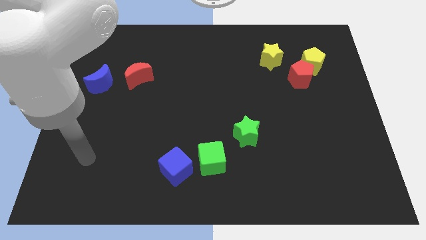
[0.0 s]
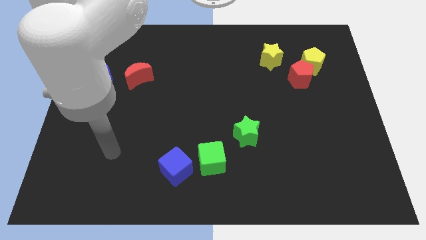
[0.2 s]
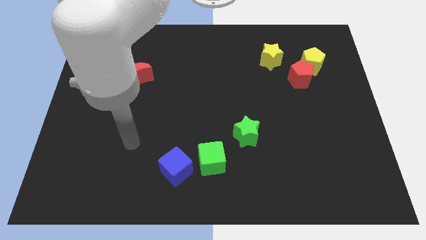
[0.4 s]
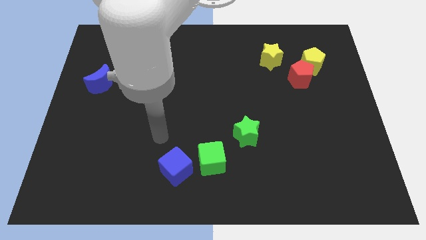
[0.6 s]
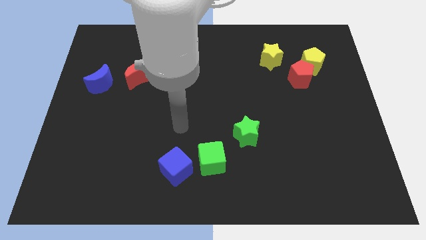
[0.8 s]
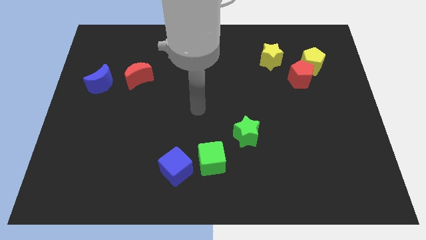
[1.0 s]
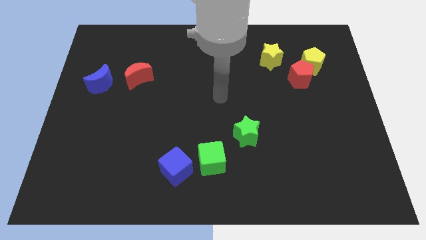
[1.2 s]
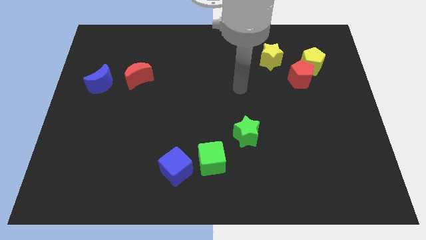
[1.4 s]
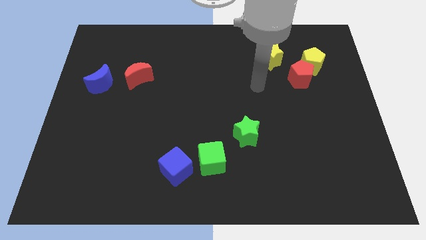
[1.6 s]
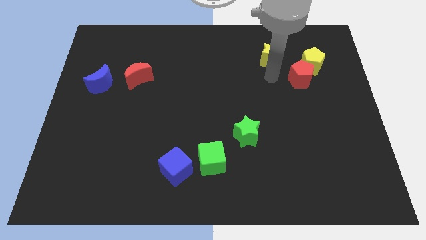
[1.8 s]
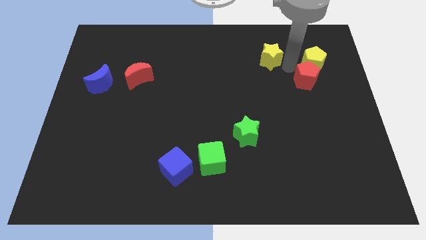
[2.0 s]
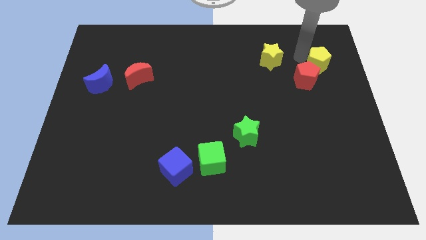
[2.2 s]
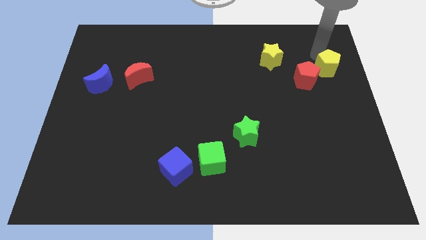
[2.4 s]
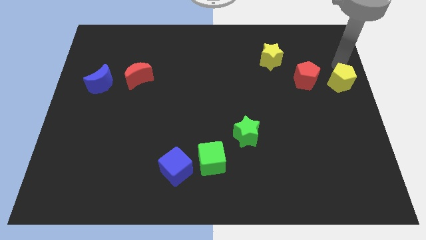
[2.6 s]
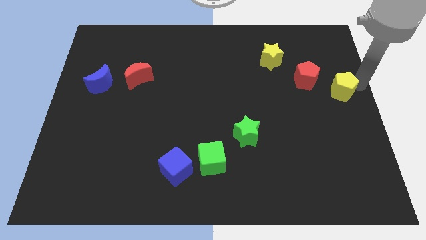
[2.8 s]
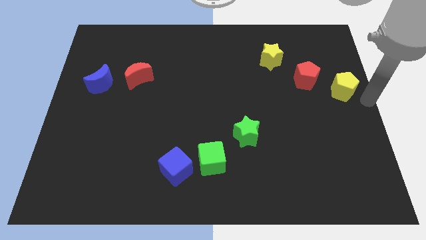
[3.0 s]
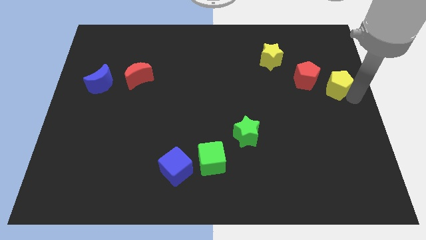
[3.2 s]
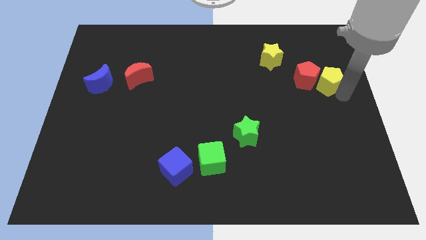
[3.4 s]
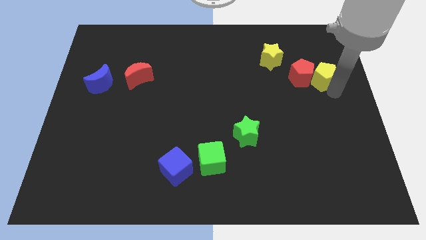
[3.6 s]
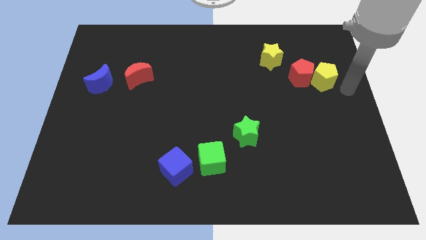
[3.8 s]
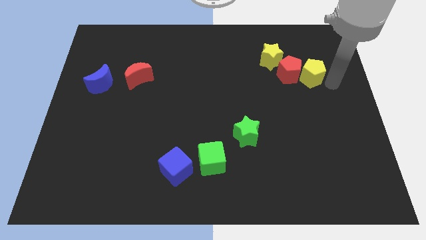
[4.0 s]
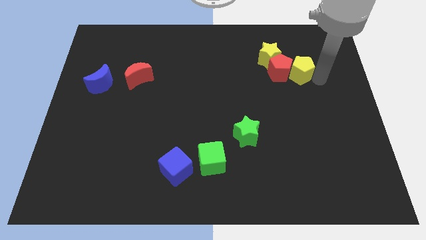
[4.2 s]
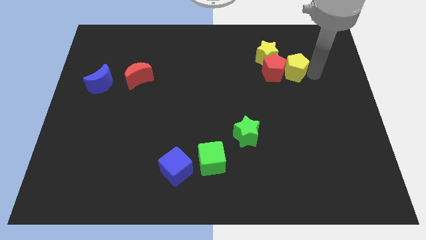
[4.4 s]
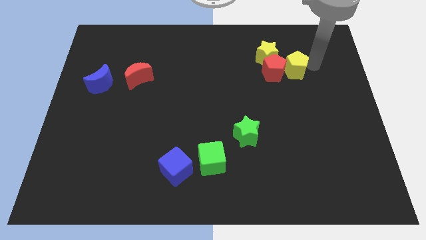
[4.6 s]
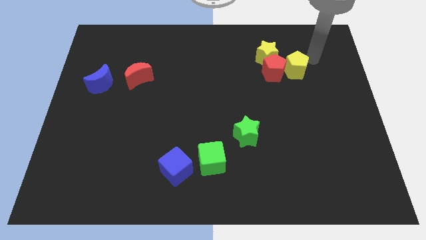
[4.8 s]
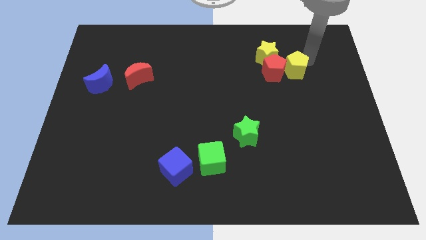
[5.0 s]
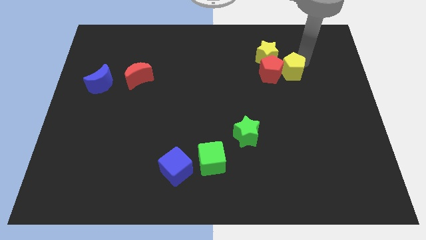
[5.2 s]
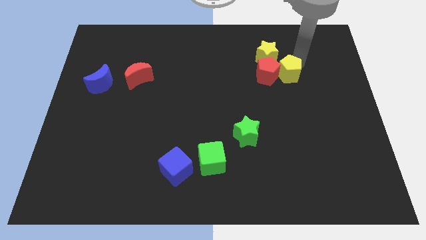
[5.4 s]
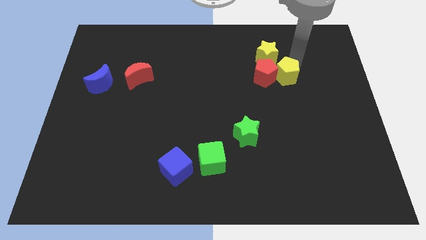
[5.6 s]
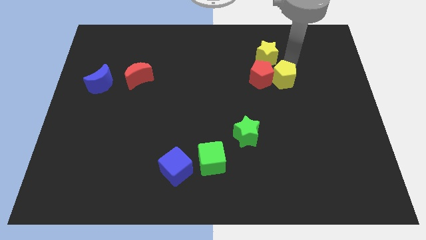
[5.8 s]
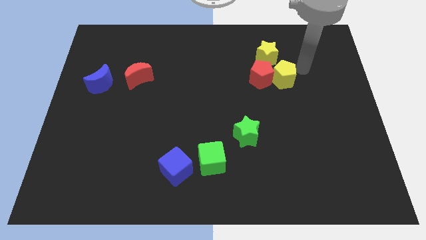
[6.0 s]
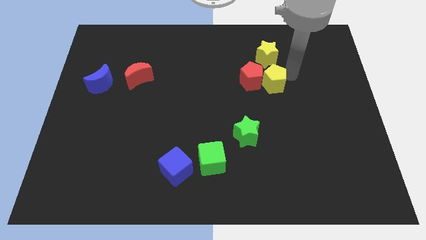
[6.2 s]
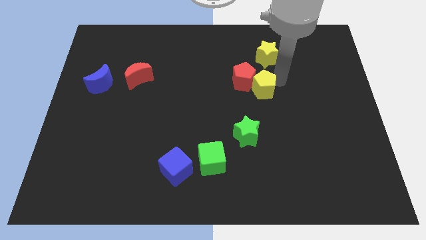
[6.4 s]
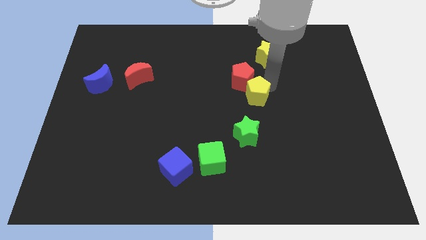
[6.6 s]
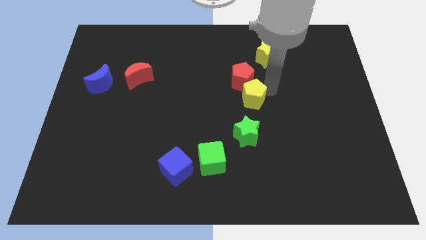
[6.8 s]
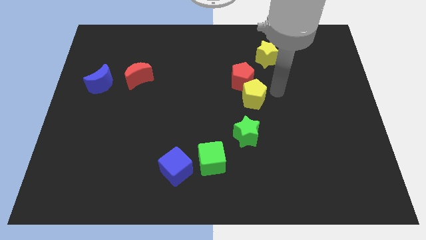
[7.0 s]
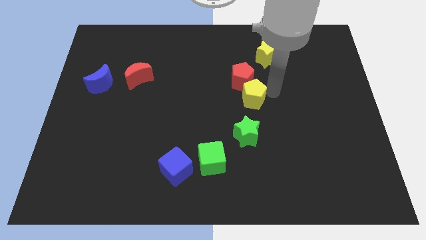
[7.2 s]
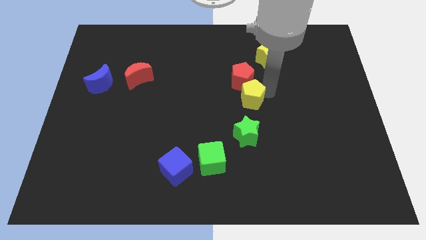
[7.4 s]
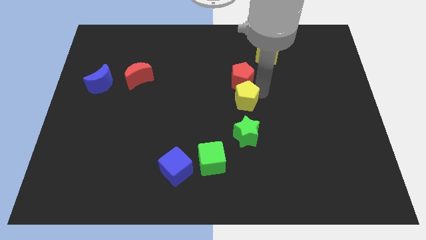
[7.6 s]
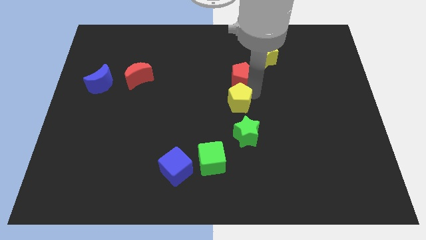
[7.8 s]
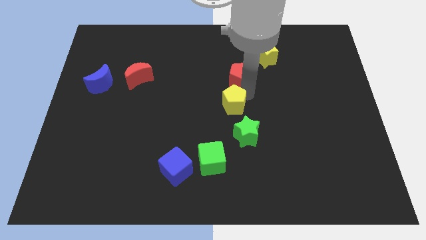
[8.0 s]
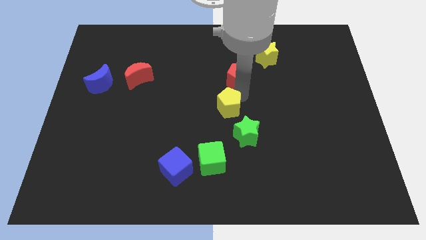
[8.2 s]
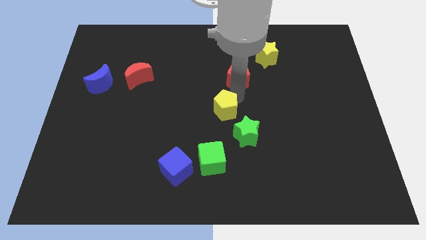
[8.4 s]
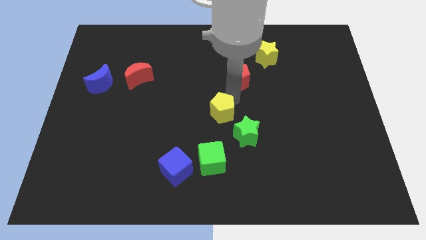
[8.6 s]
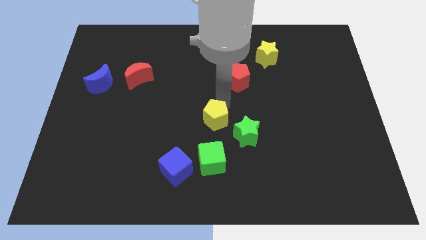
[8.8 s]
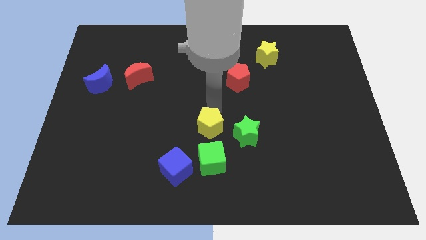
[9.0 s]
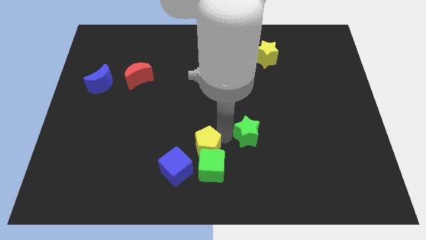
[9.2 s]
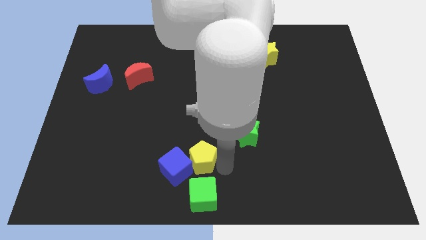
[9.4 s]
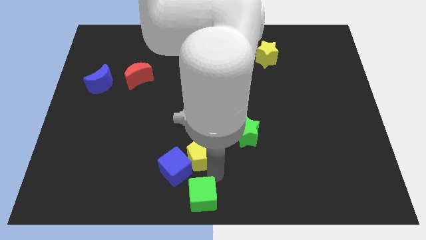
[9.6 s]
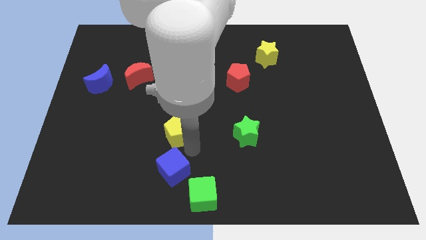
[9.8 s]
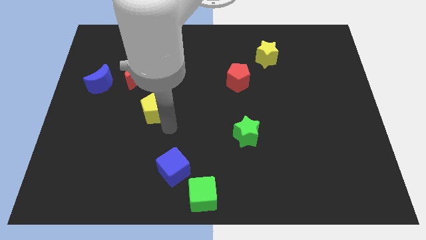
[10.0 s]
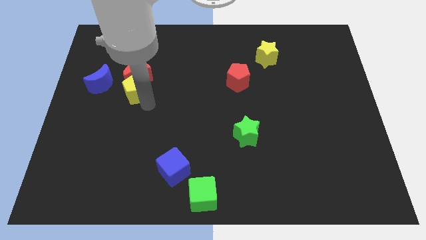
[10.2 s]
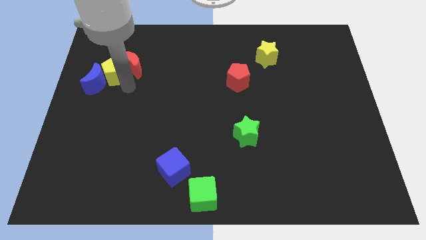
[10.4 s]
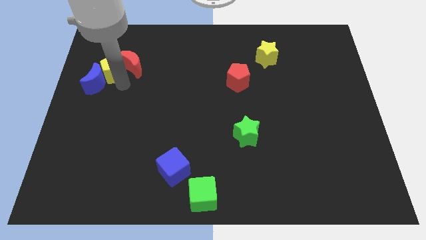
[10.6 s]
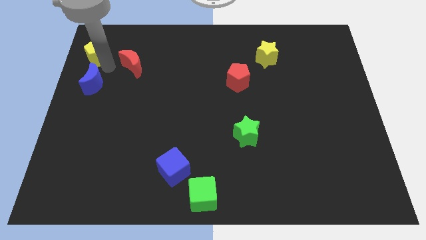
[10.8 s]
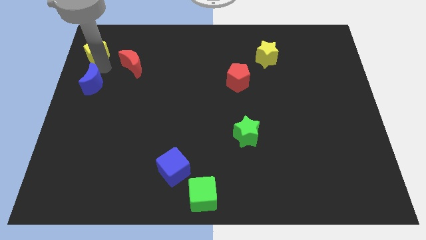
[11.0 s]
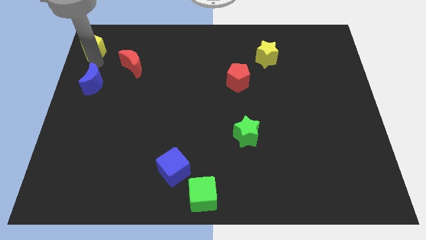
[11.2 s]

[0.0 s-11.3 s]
put the yellow pentagon to the top left of the board

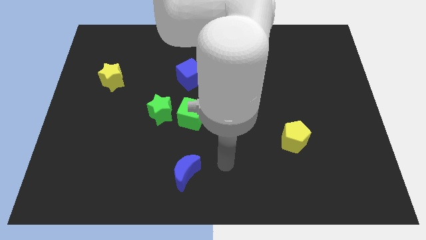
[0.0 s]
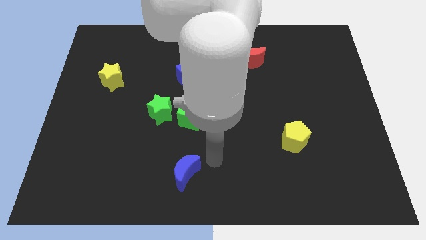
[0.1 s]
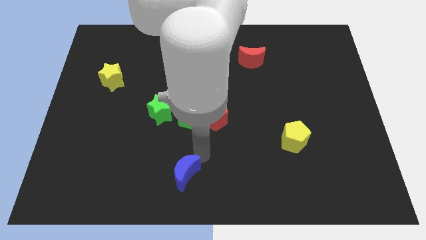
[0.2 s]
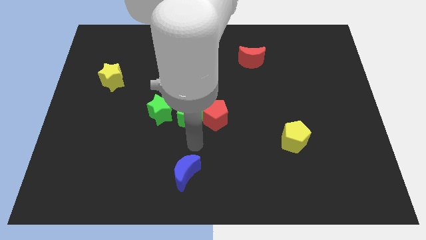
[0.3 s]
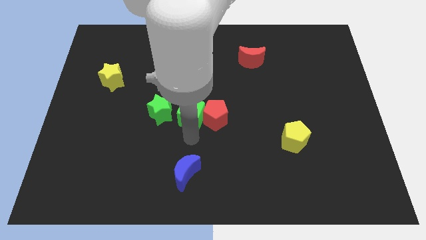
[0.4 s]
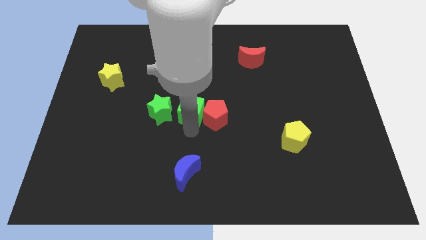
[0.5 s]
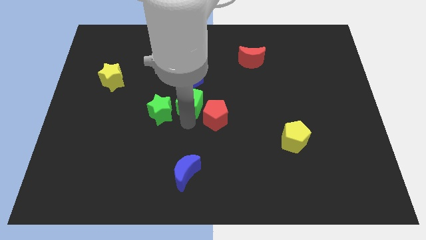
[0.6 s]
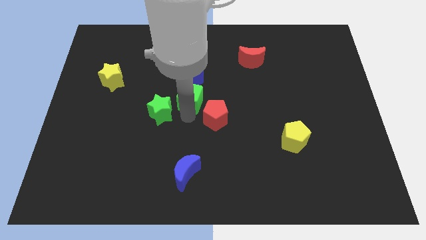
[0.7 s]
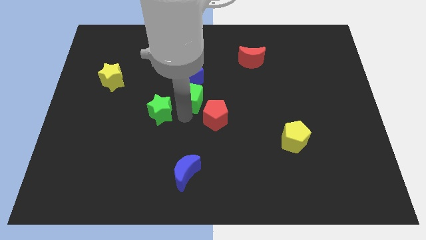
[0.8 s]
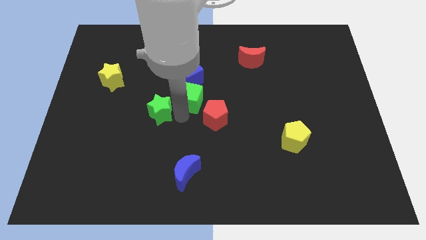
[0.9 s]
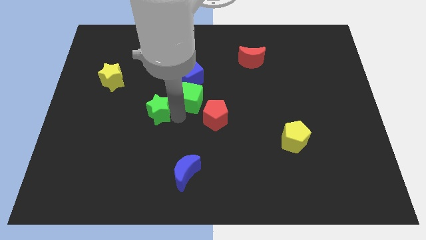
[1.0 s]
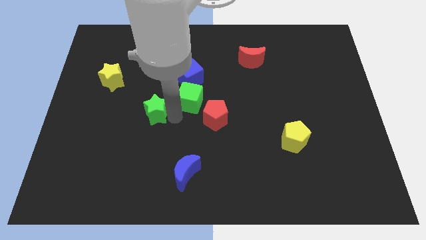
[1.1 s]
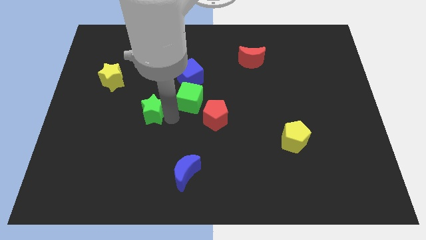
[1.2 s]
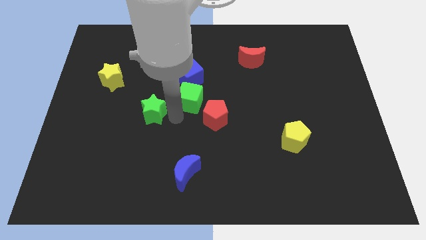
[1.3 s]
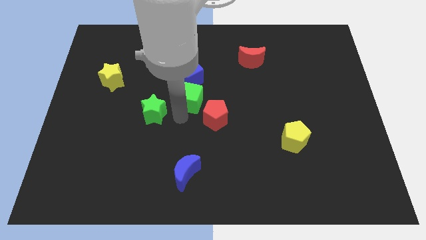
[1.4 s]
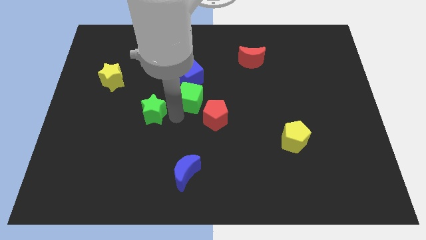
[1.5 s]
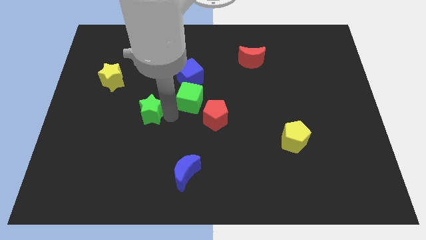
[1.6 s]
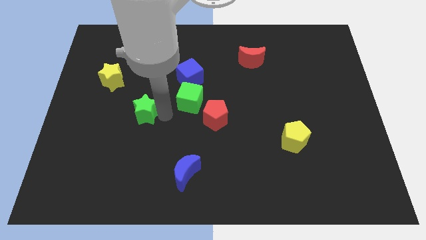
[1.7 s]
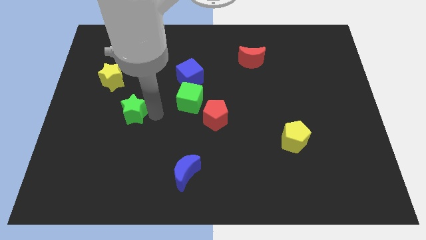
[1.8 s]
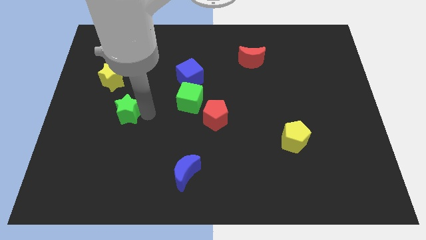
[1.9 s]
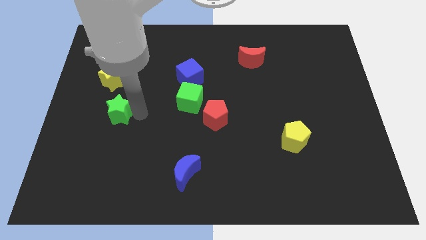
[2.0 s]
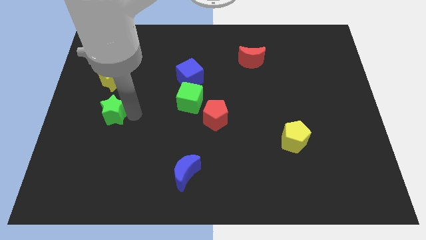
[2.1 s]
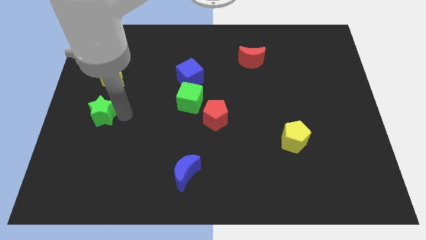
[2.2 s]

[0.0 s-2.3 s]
slide the green star to the left side
